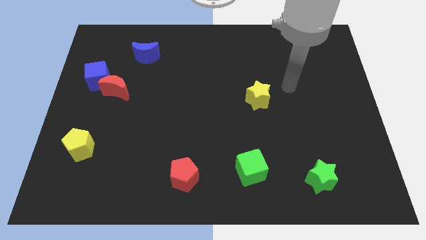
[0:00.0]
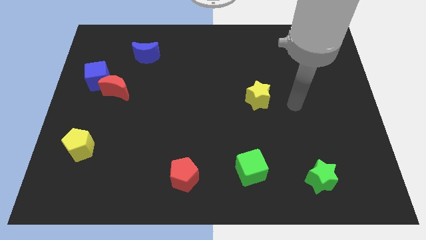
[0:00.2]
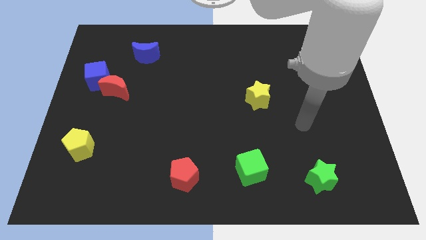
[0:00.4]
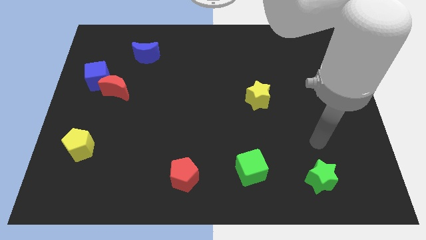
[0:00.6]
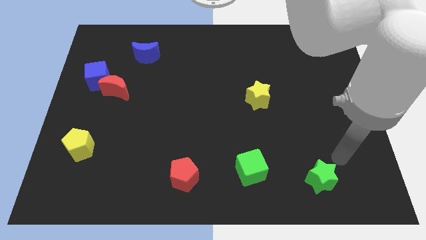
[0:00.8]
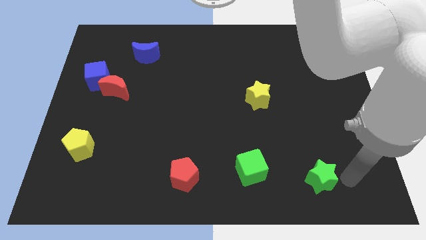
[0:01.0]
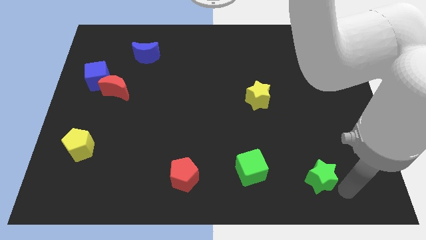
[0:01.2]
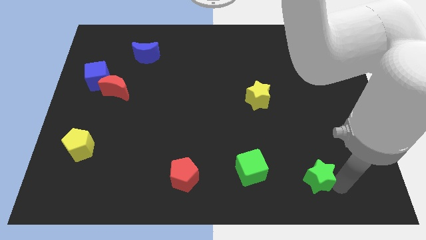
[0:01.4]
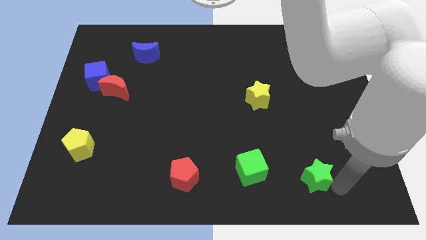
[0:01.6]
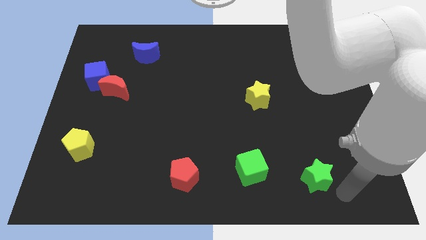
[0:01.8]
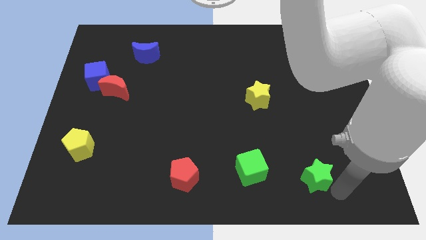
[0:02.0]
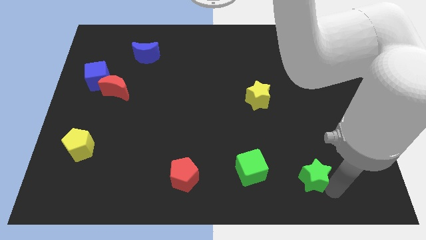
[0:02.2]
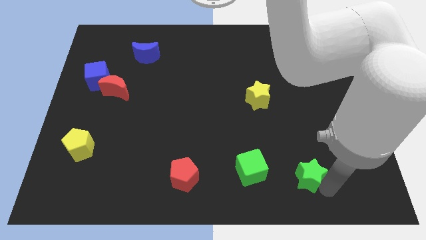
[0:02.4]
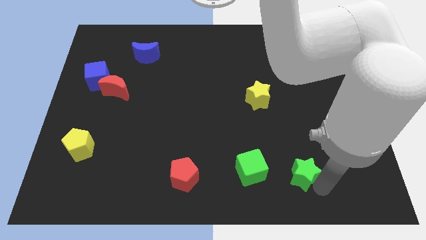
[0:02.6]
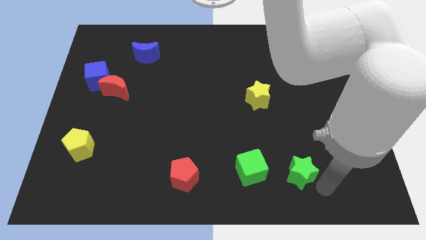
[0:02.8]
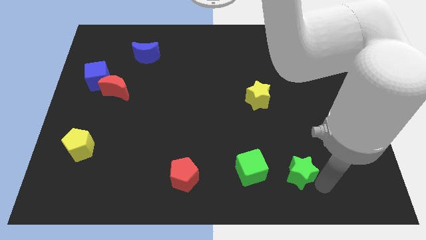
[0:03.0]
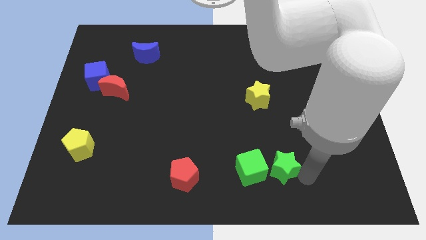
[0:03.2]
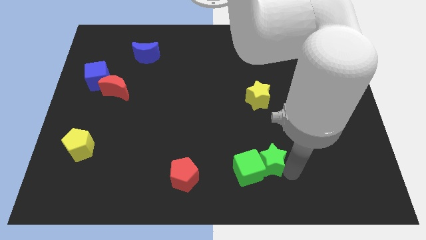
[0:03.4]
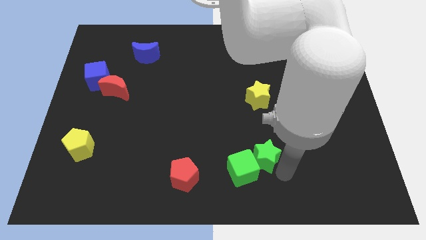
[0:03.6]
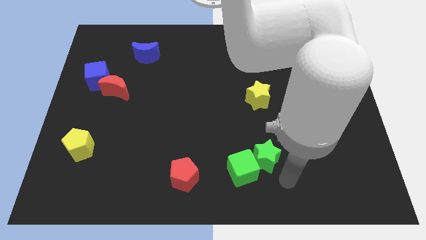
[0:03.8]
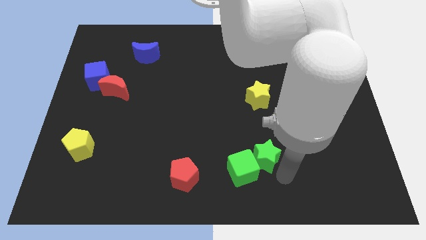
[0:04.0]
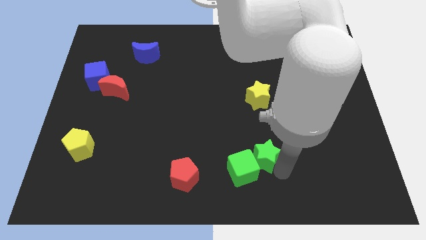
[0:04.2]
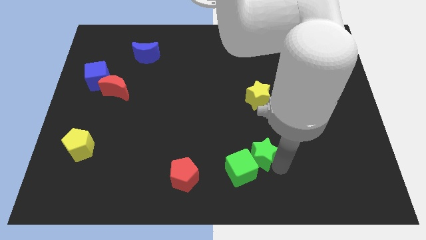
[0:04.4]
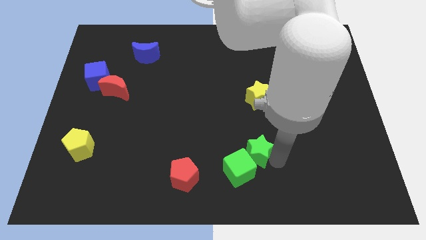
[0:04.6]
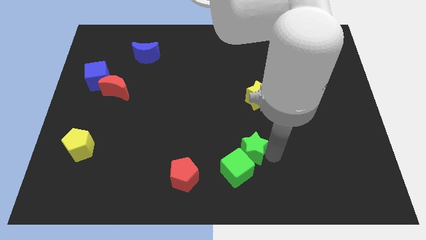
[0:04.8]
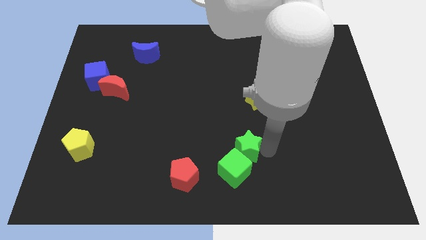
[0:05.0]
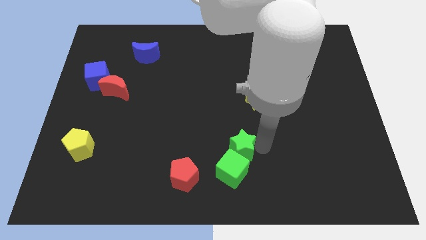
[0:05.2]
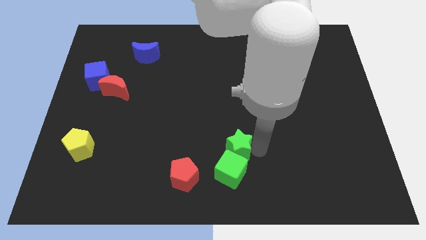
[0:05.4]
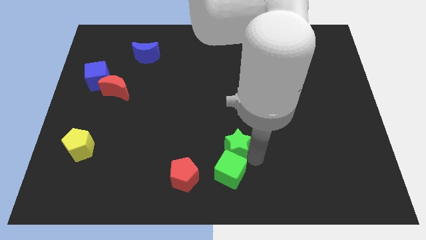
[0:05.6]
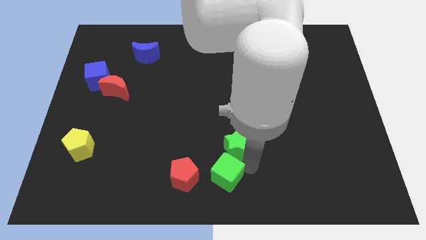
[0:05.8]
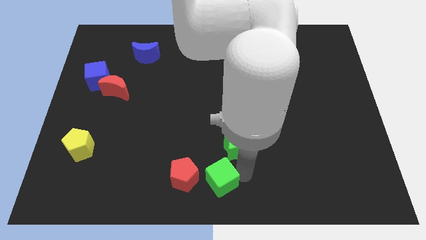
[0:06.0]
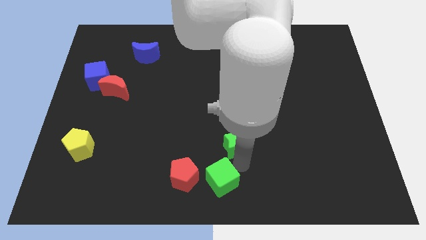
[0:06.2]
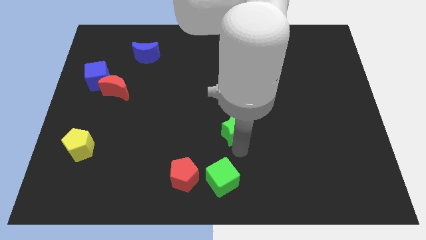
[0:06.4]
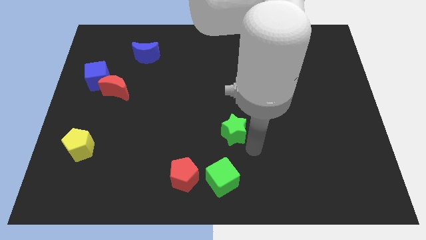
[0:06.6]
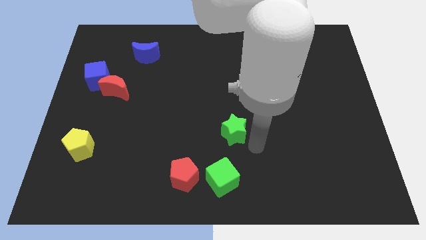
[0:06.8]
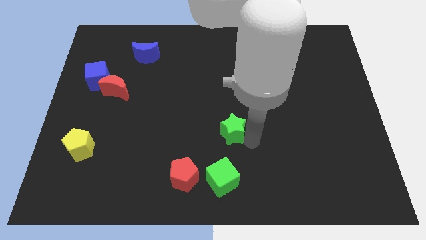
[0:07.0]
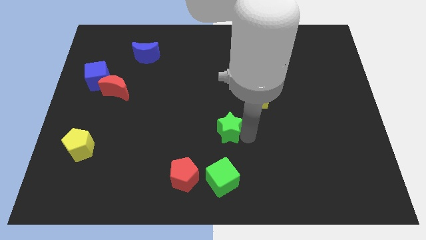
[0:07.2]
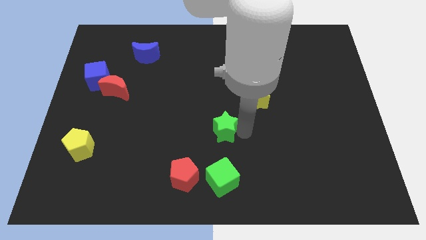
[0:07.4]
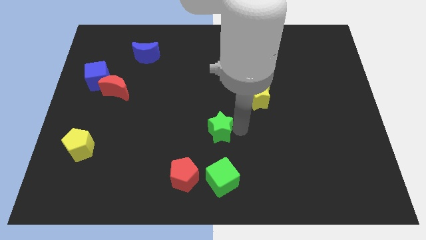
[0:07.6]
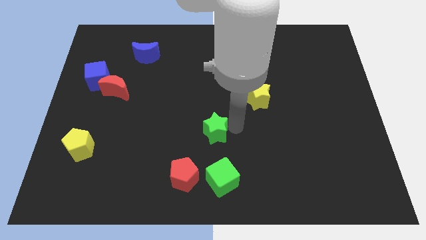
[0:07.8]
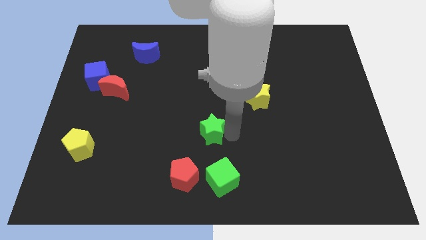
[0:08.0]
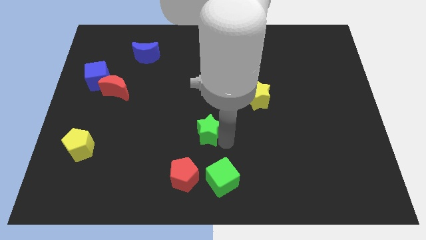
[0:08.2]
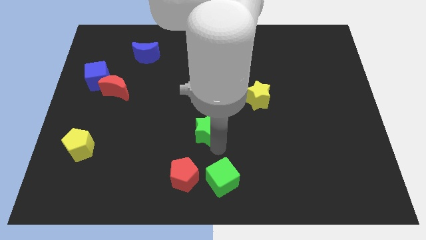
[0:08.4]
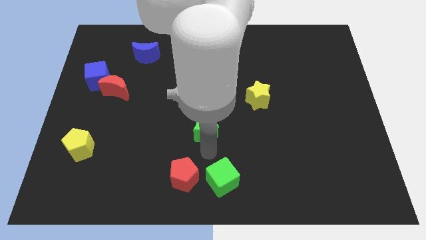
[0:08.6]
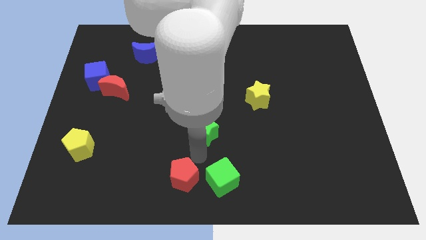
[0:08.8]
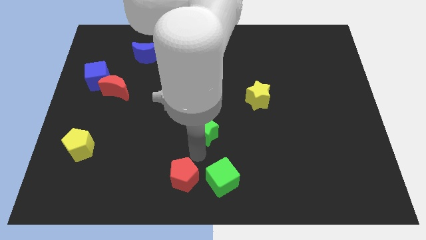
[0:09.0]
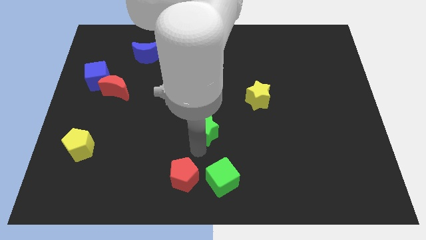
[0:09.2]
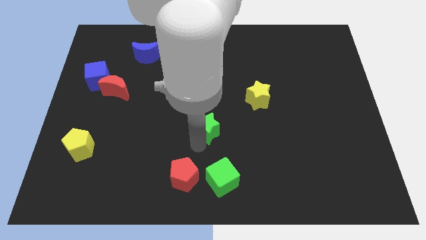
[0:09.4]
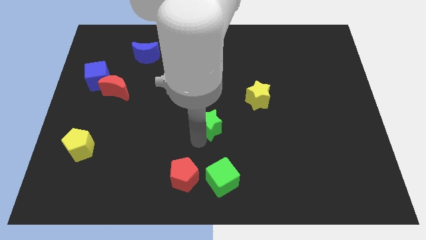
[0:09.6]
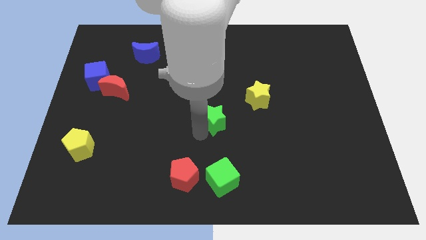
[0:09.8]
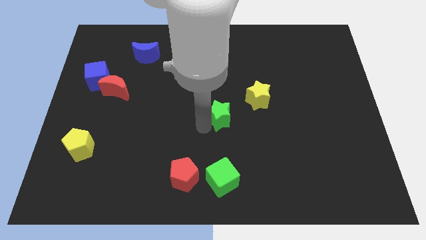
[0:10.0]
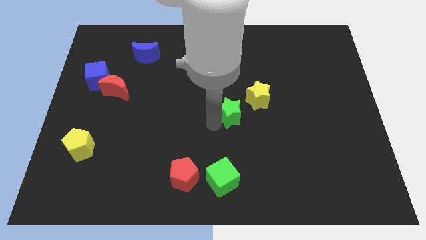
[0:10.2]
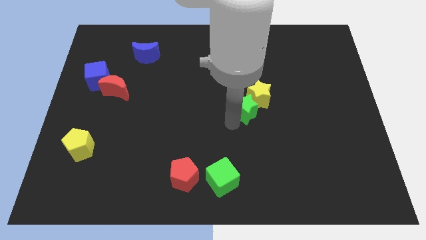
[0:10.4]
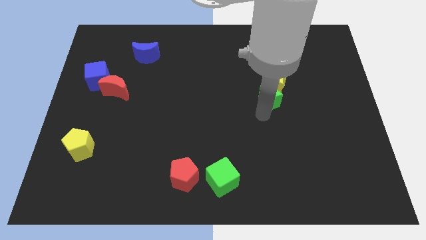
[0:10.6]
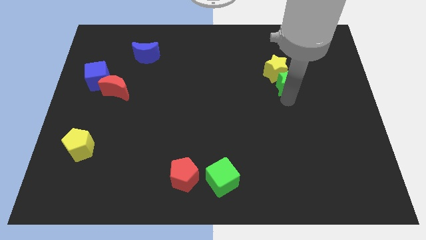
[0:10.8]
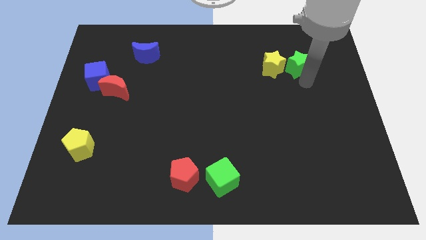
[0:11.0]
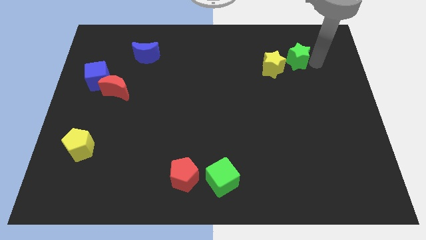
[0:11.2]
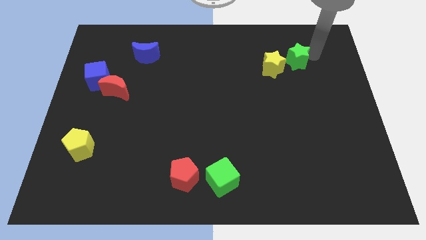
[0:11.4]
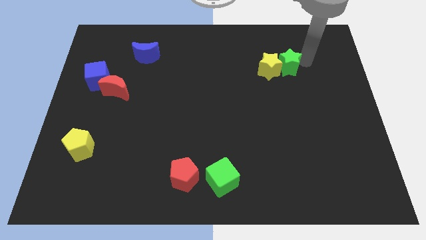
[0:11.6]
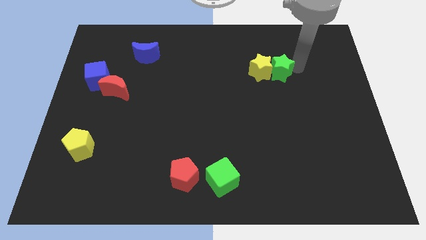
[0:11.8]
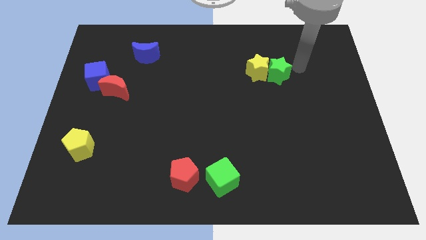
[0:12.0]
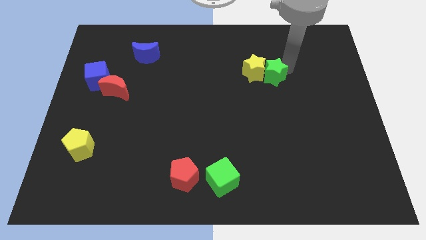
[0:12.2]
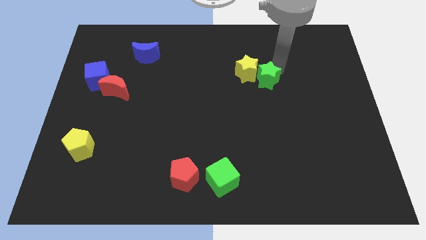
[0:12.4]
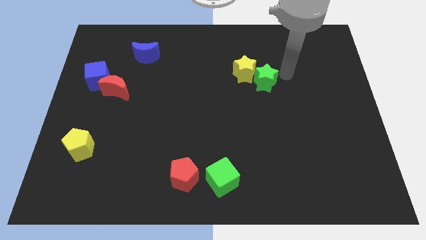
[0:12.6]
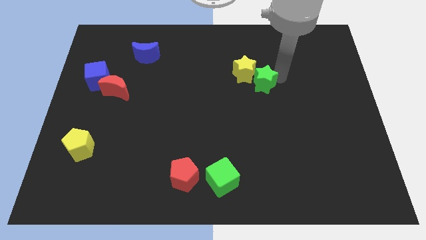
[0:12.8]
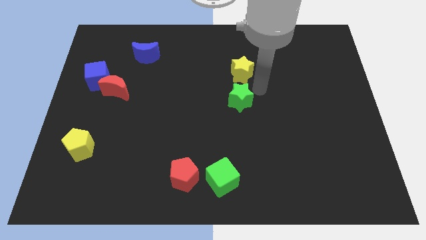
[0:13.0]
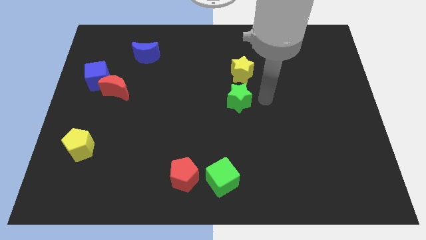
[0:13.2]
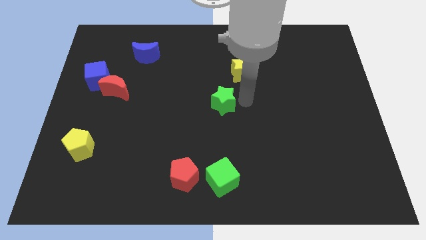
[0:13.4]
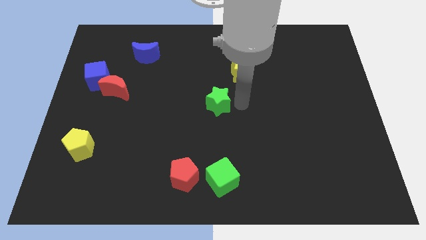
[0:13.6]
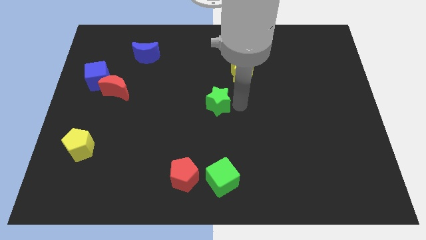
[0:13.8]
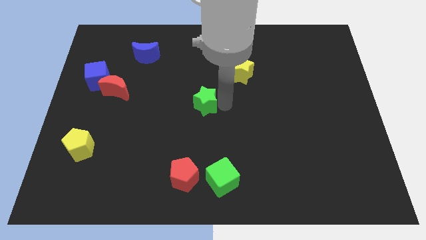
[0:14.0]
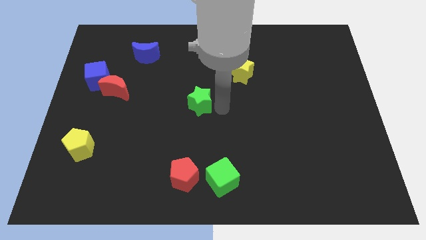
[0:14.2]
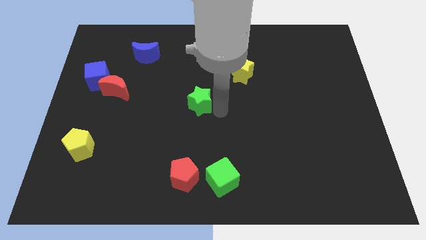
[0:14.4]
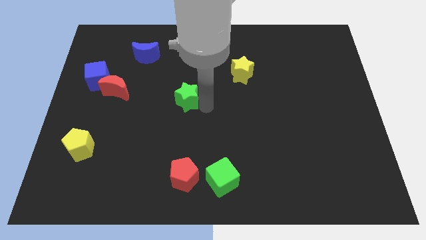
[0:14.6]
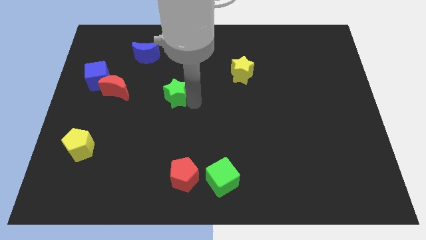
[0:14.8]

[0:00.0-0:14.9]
slide the green star to the right of the red moon

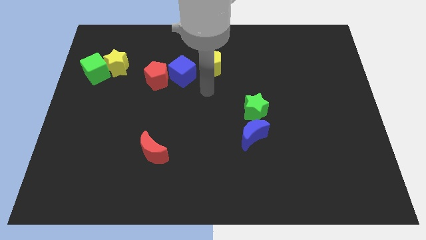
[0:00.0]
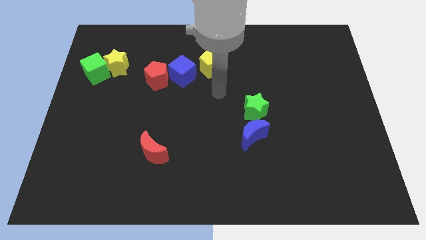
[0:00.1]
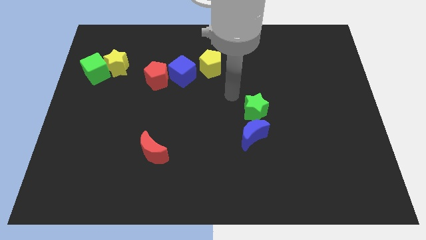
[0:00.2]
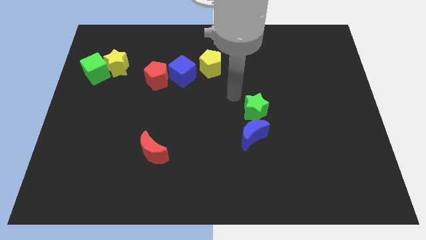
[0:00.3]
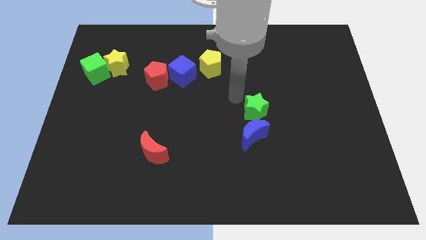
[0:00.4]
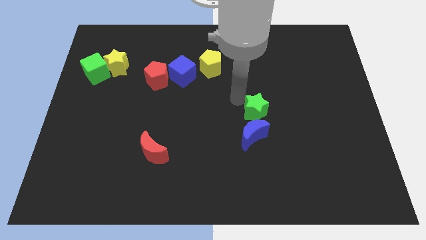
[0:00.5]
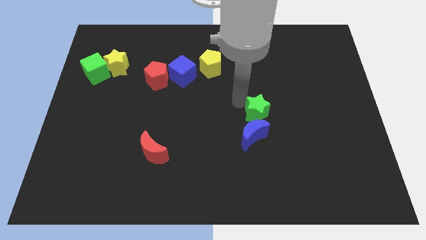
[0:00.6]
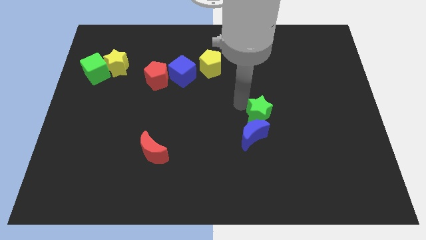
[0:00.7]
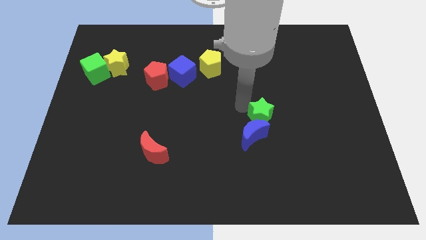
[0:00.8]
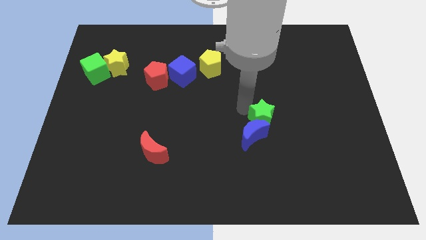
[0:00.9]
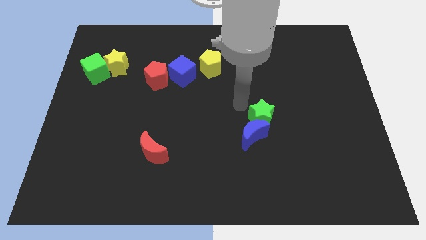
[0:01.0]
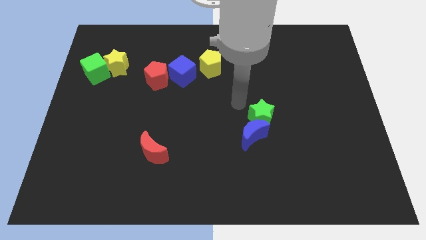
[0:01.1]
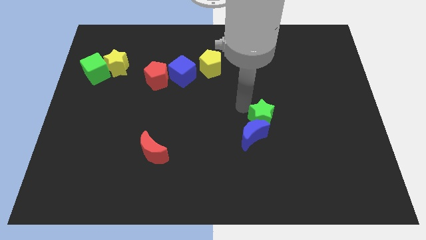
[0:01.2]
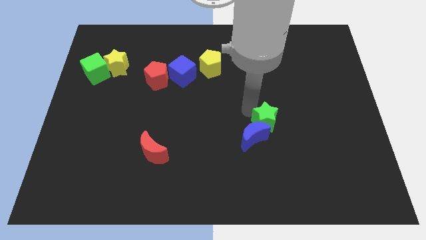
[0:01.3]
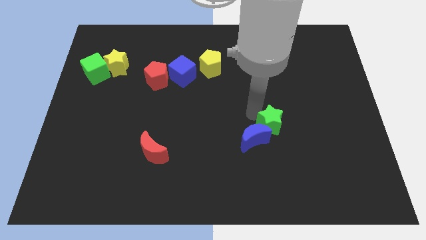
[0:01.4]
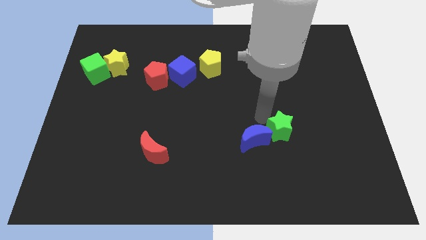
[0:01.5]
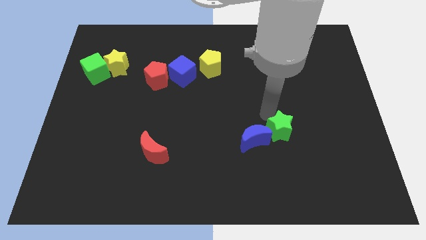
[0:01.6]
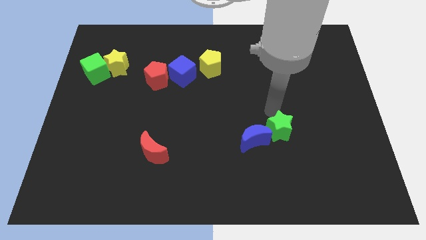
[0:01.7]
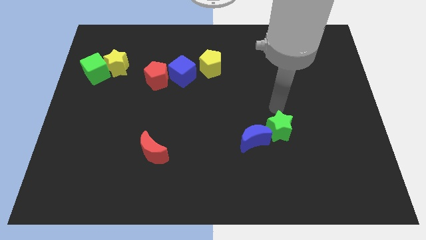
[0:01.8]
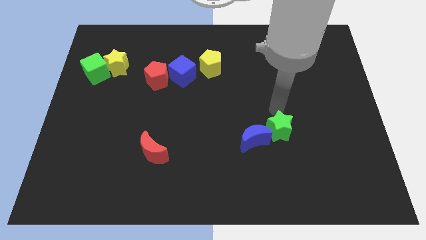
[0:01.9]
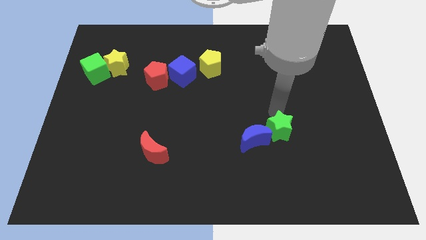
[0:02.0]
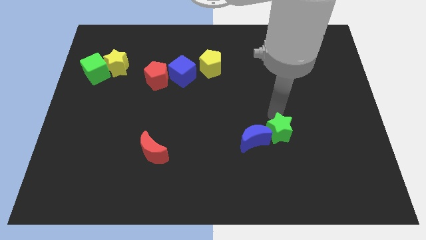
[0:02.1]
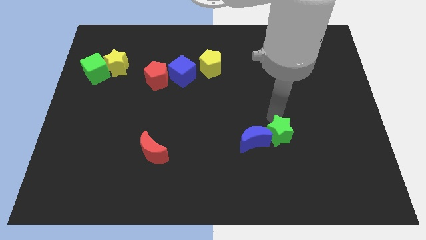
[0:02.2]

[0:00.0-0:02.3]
push the green star to the bottom right of the blue moon
